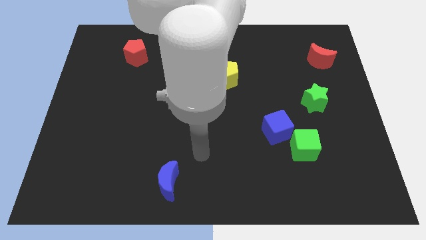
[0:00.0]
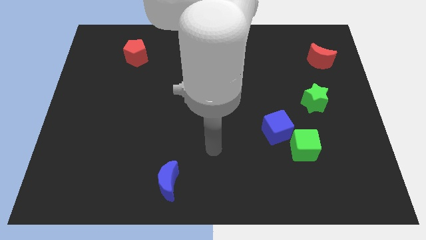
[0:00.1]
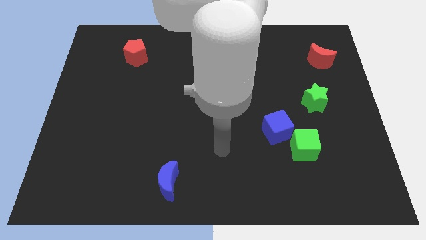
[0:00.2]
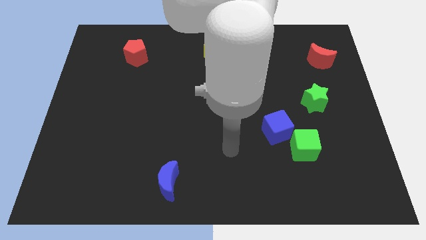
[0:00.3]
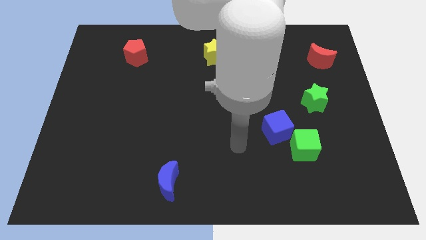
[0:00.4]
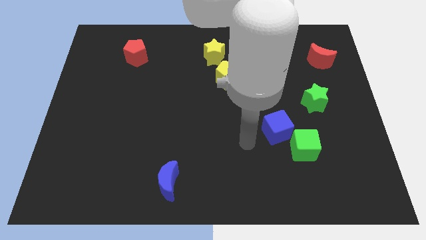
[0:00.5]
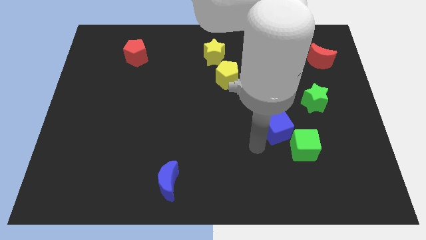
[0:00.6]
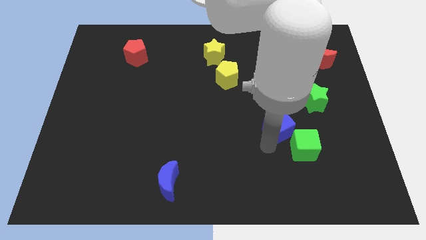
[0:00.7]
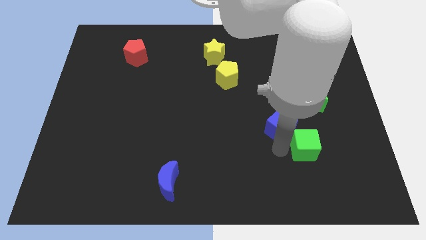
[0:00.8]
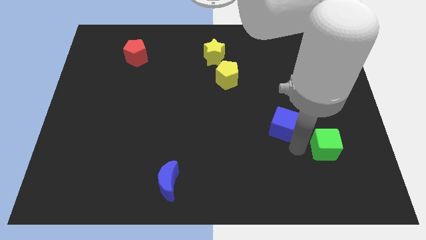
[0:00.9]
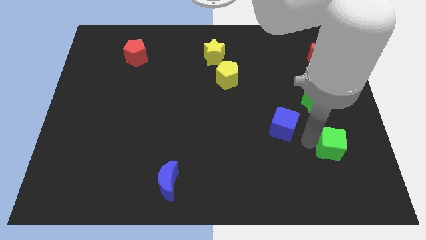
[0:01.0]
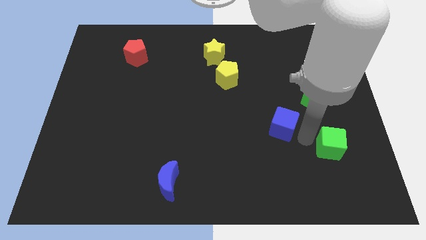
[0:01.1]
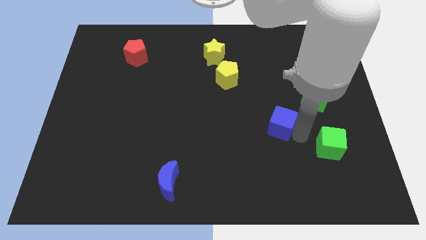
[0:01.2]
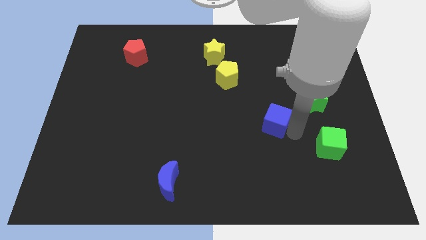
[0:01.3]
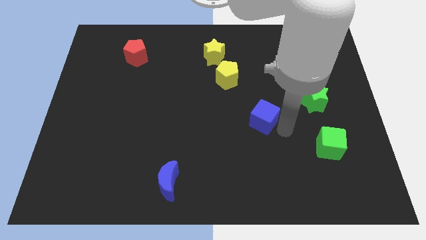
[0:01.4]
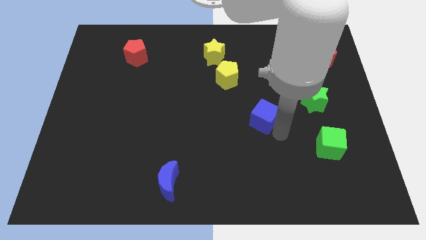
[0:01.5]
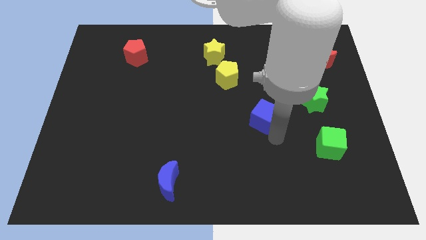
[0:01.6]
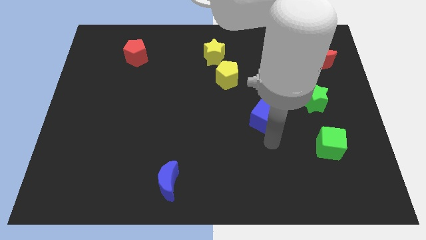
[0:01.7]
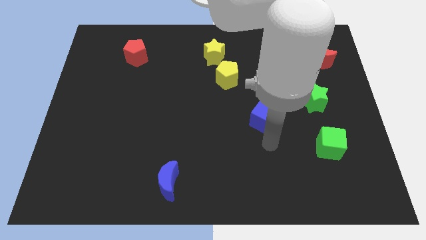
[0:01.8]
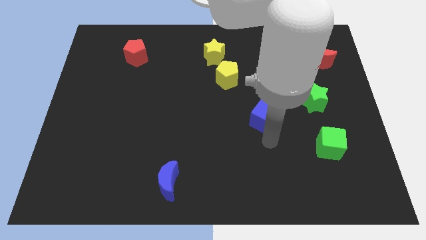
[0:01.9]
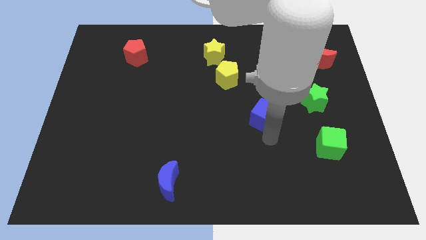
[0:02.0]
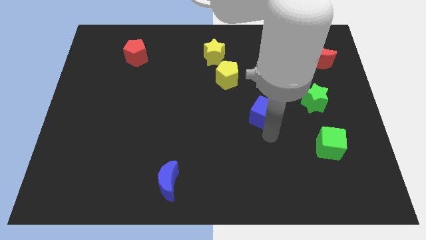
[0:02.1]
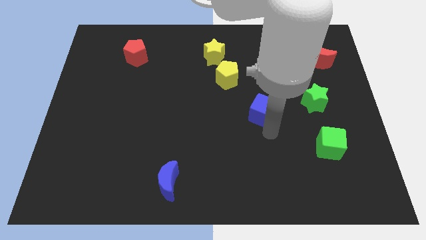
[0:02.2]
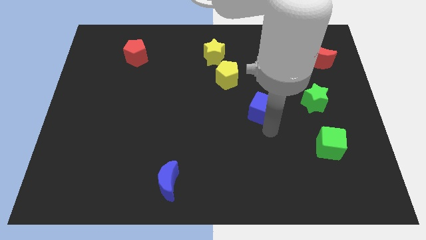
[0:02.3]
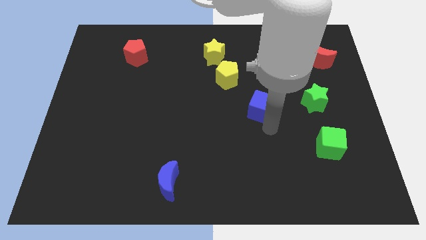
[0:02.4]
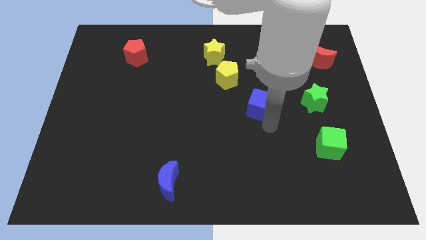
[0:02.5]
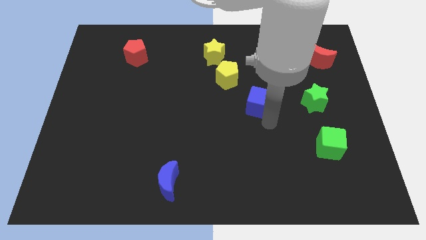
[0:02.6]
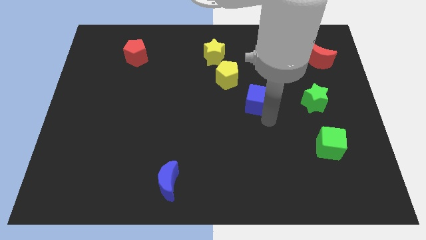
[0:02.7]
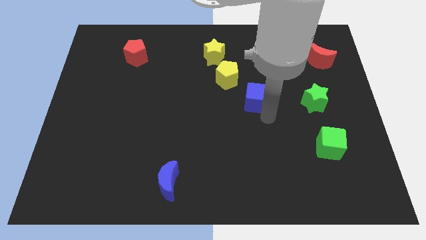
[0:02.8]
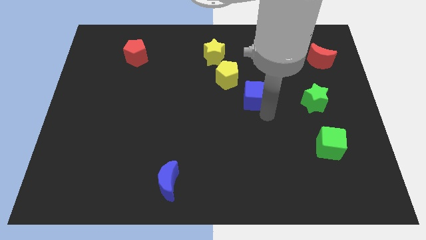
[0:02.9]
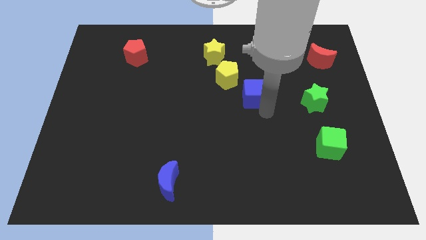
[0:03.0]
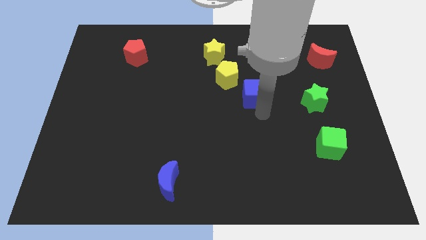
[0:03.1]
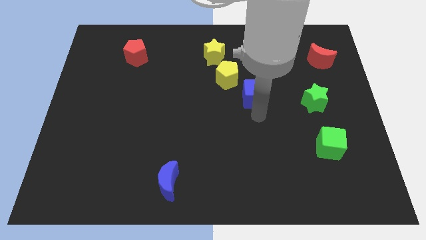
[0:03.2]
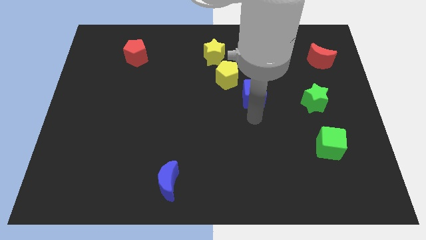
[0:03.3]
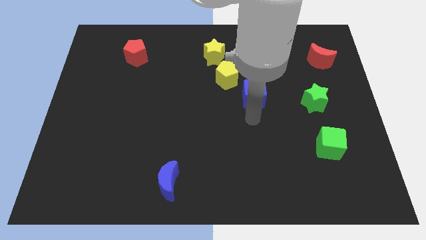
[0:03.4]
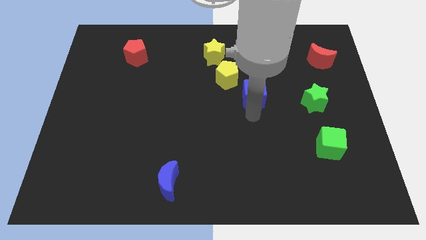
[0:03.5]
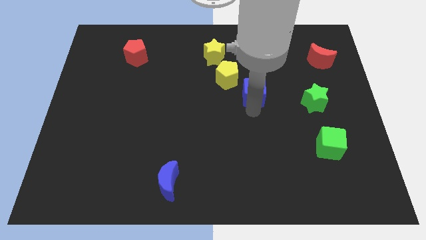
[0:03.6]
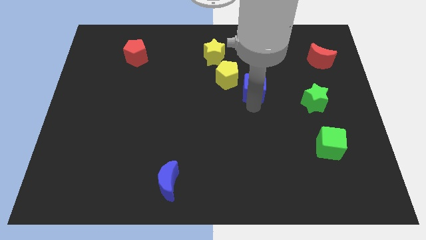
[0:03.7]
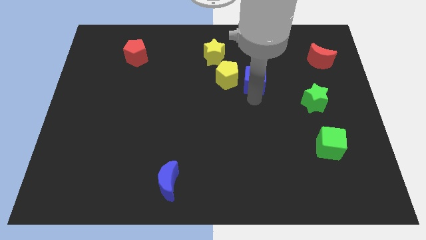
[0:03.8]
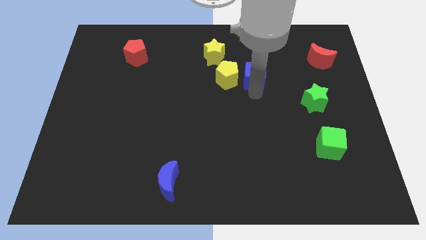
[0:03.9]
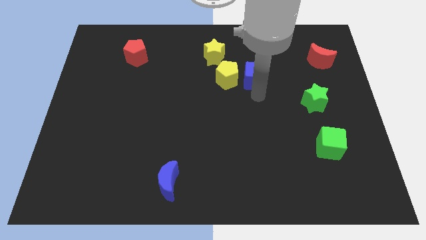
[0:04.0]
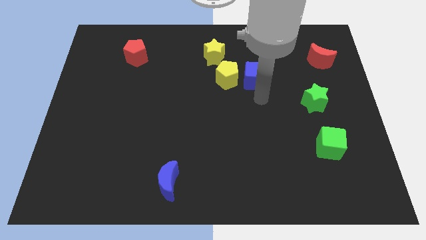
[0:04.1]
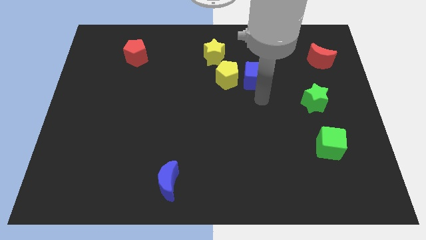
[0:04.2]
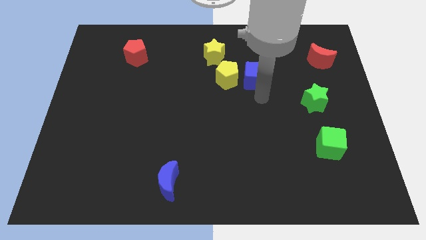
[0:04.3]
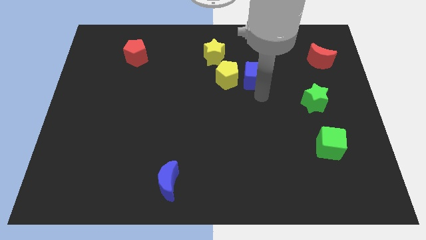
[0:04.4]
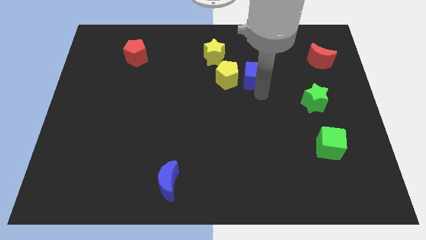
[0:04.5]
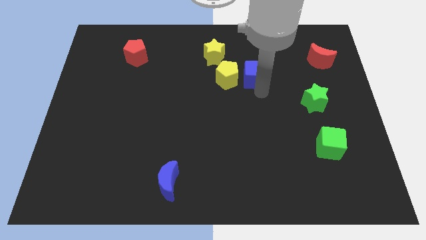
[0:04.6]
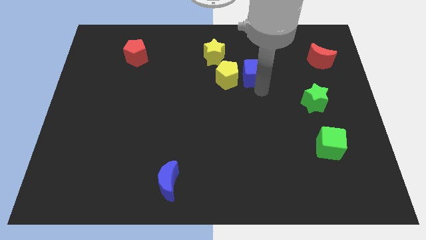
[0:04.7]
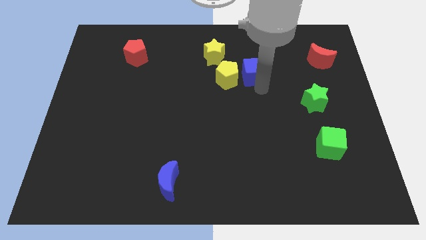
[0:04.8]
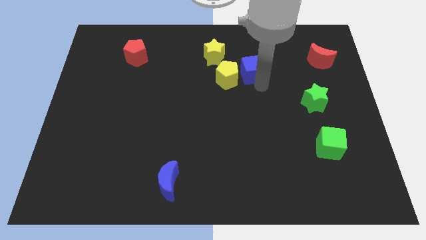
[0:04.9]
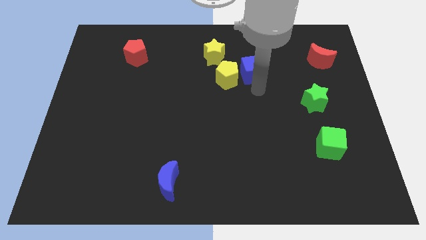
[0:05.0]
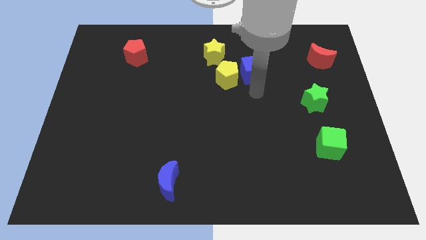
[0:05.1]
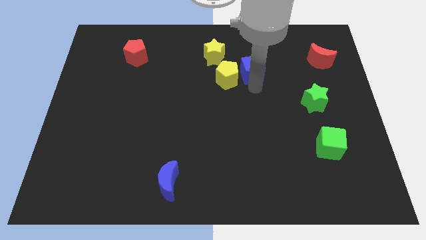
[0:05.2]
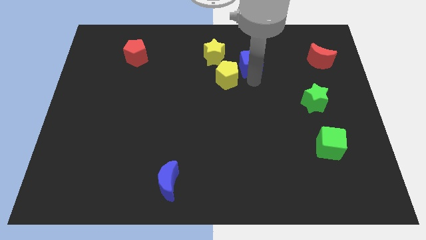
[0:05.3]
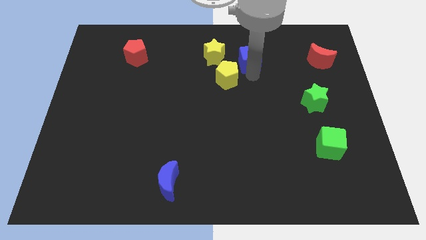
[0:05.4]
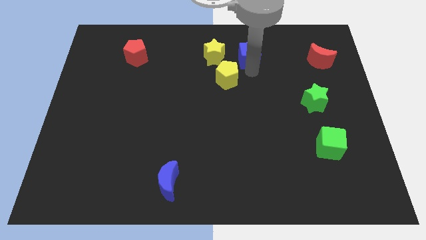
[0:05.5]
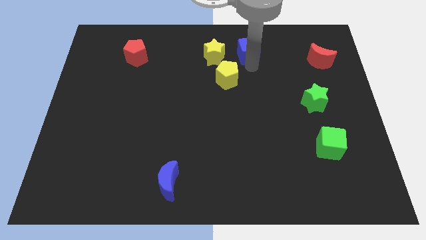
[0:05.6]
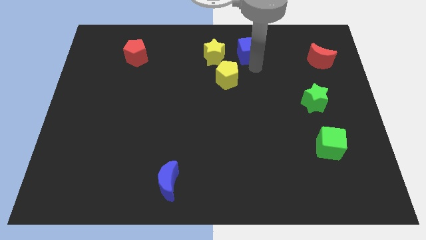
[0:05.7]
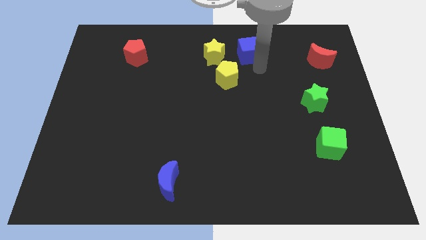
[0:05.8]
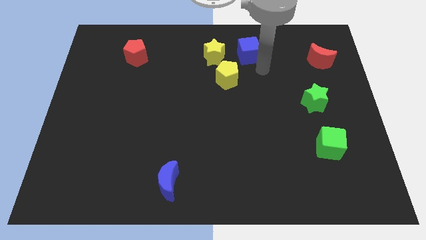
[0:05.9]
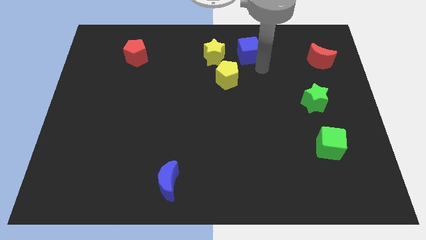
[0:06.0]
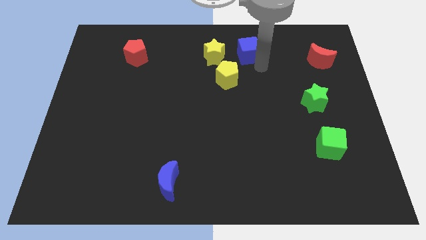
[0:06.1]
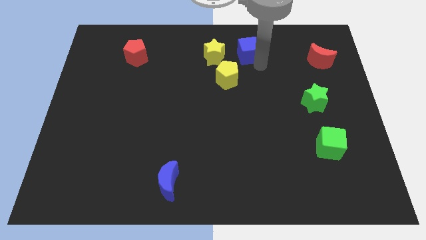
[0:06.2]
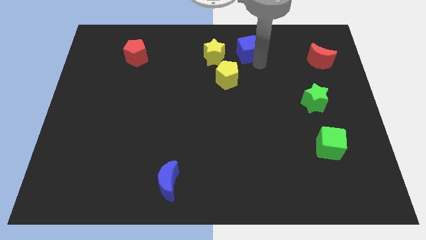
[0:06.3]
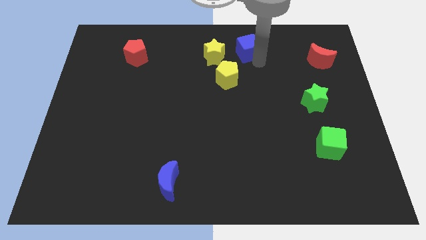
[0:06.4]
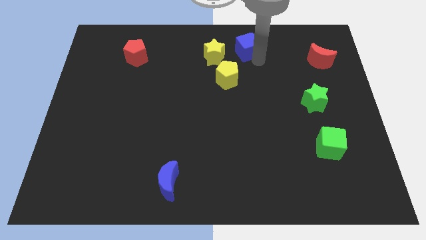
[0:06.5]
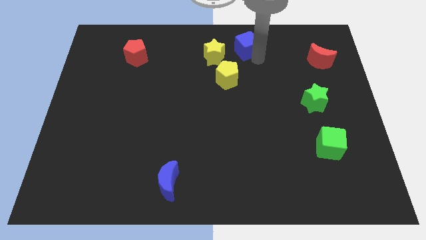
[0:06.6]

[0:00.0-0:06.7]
push the blue cube to the top

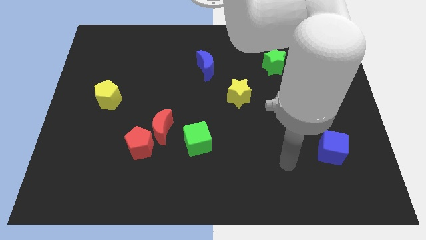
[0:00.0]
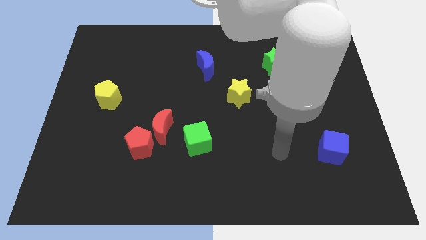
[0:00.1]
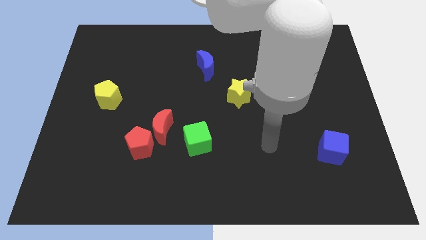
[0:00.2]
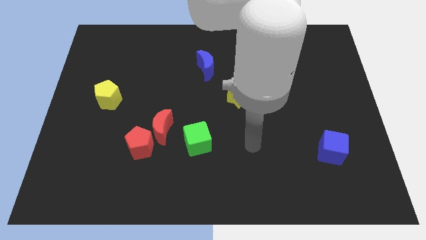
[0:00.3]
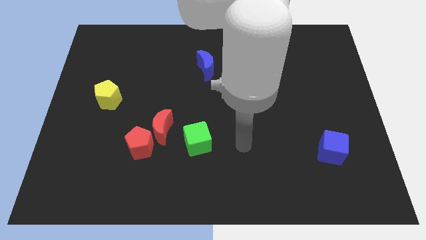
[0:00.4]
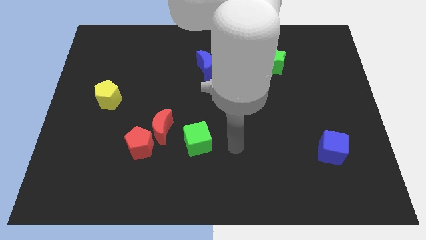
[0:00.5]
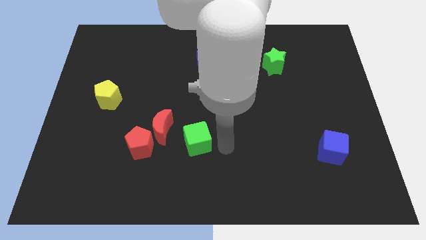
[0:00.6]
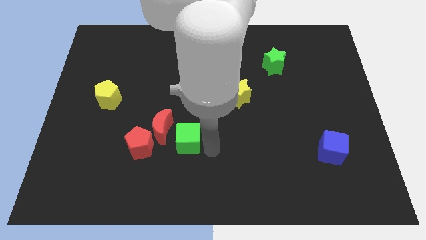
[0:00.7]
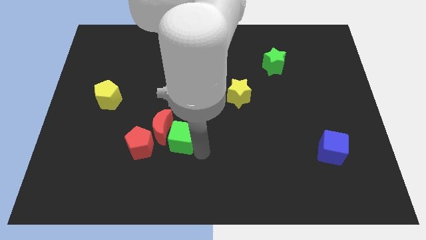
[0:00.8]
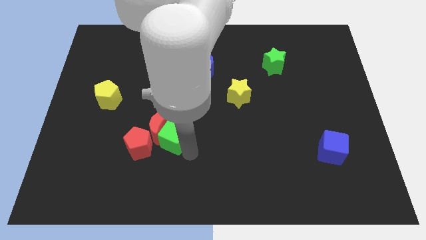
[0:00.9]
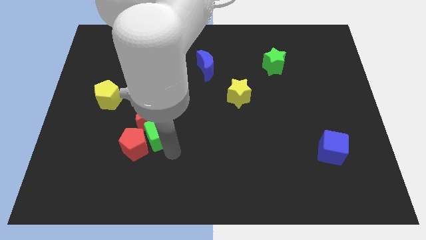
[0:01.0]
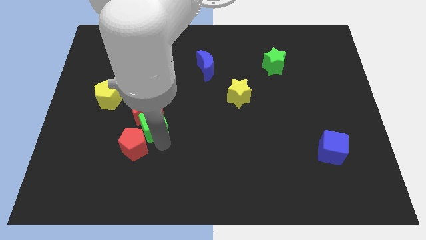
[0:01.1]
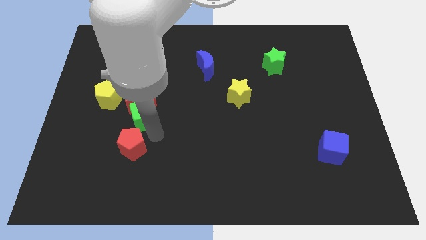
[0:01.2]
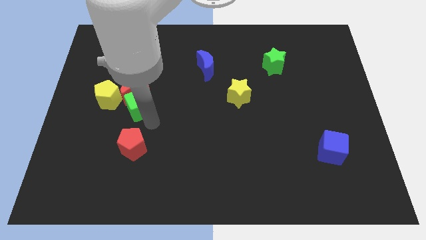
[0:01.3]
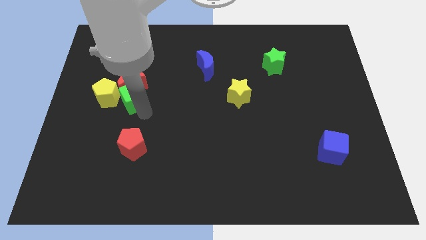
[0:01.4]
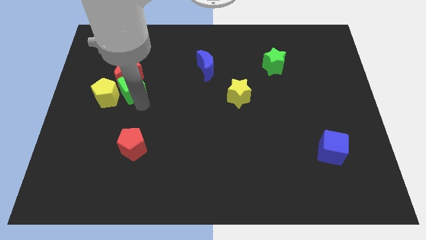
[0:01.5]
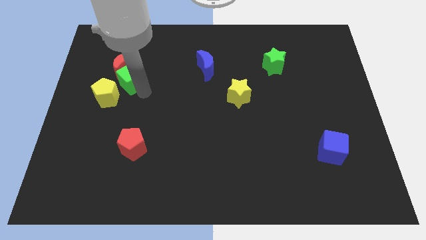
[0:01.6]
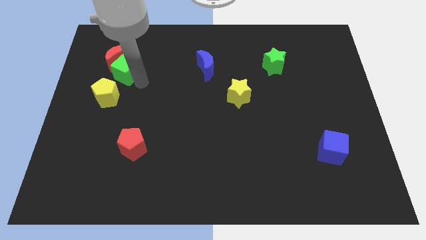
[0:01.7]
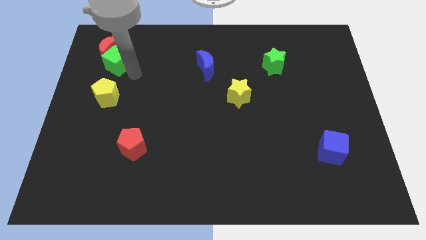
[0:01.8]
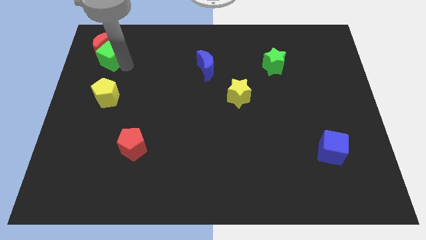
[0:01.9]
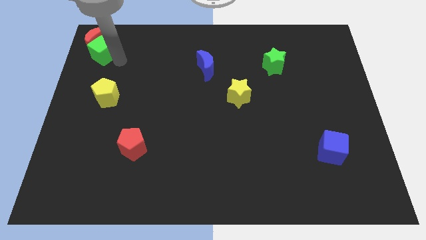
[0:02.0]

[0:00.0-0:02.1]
slide the red moon to the top left of the board
